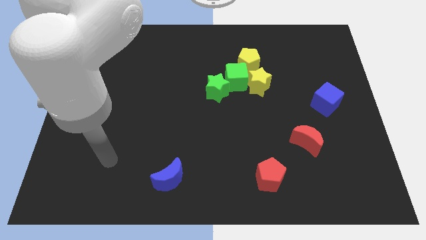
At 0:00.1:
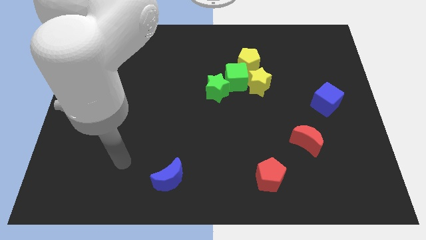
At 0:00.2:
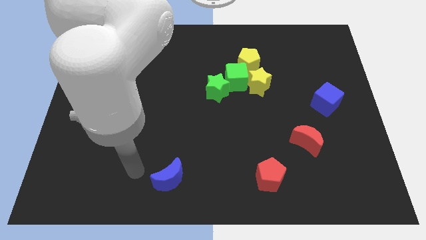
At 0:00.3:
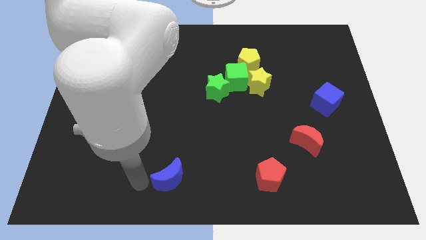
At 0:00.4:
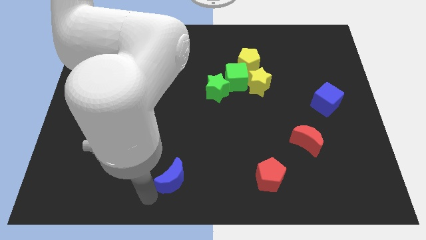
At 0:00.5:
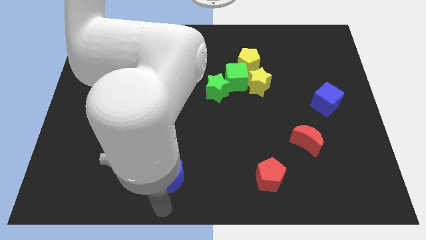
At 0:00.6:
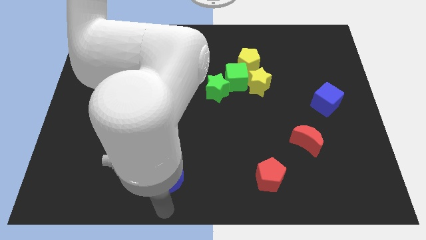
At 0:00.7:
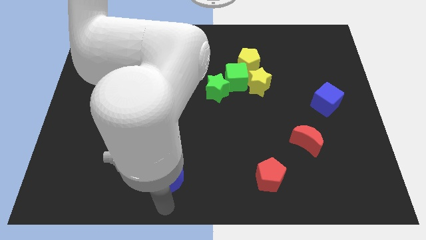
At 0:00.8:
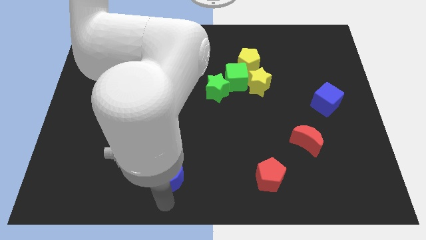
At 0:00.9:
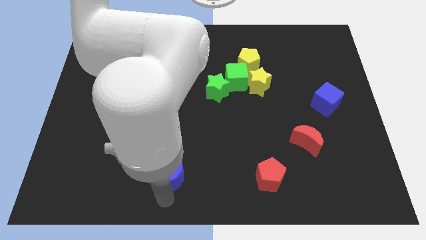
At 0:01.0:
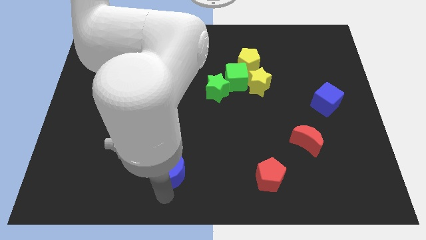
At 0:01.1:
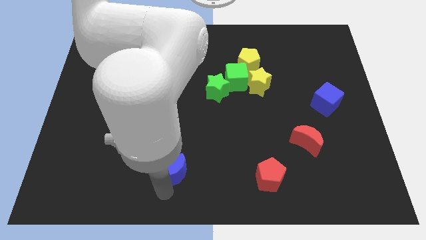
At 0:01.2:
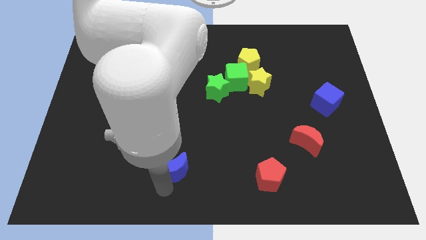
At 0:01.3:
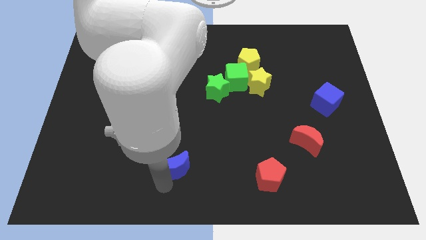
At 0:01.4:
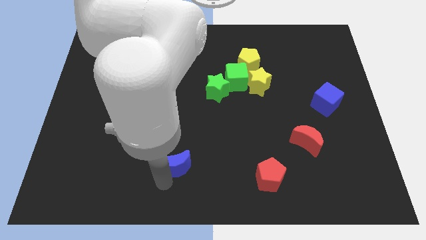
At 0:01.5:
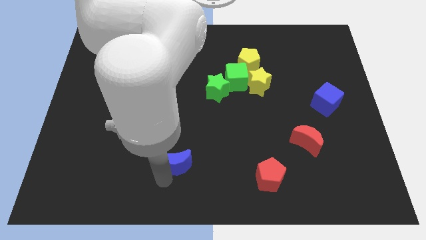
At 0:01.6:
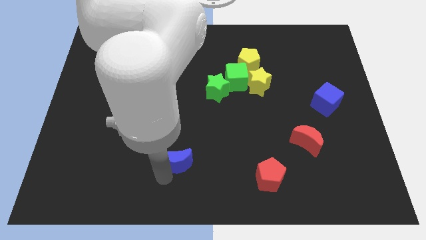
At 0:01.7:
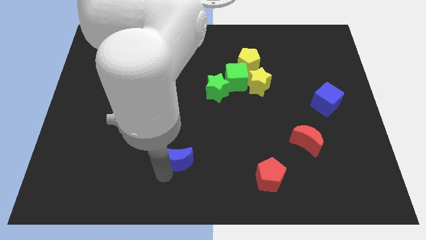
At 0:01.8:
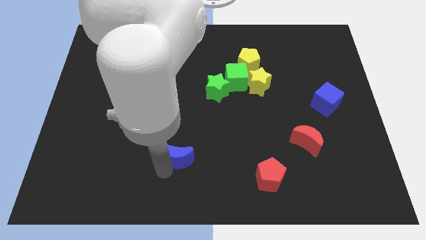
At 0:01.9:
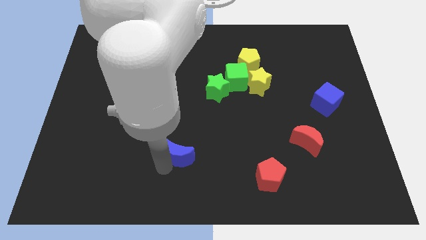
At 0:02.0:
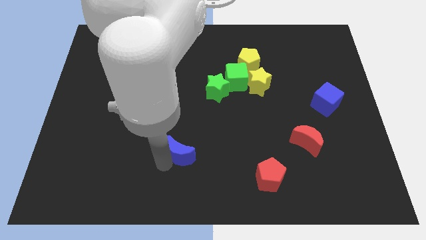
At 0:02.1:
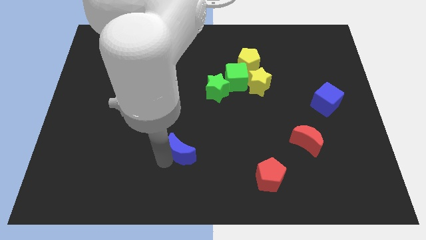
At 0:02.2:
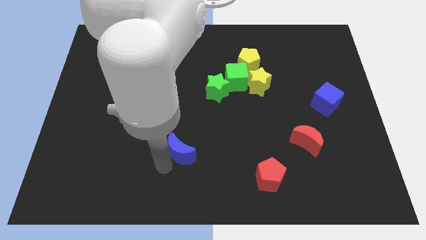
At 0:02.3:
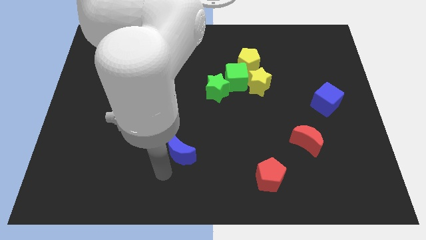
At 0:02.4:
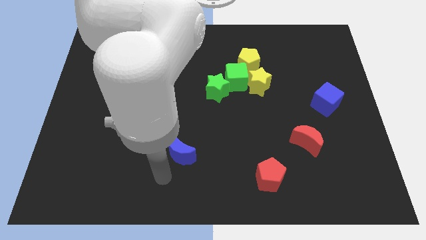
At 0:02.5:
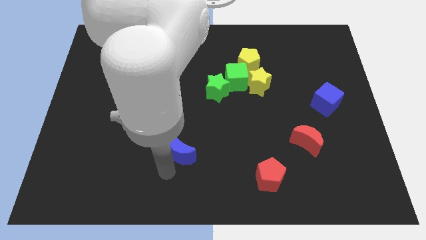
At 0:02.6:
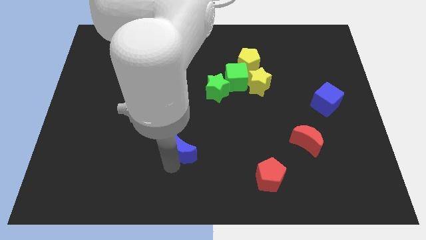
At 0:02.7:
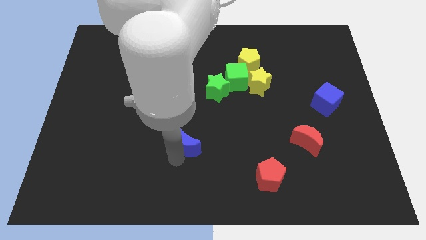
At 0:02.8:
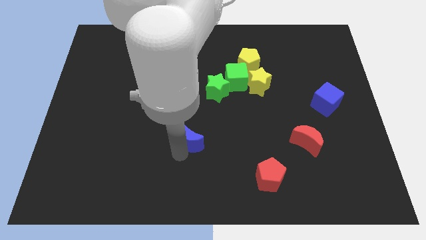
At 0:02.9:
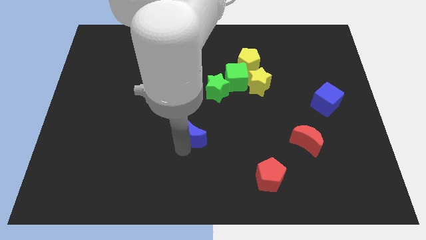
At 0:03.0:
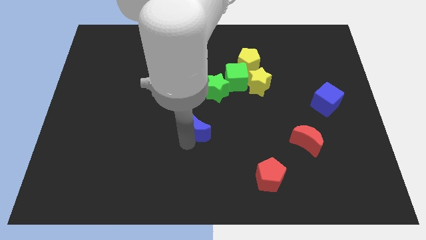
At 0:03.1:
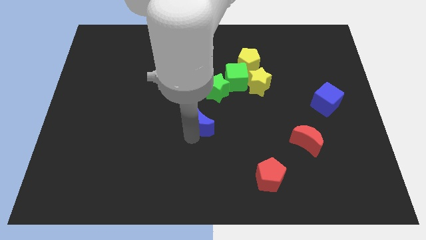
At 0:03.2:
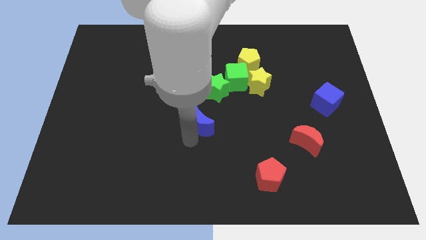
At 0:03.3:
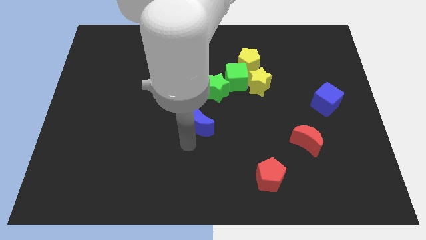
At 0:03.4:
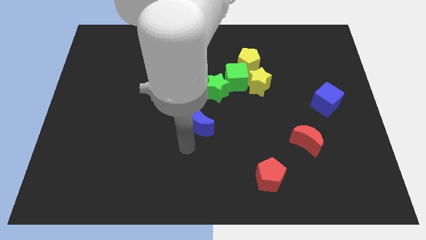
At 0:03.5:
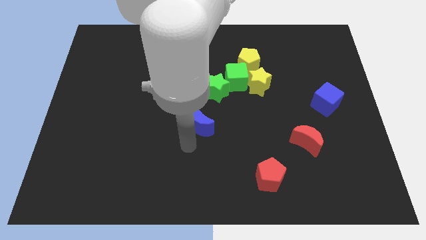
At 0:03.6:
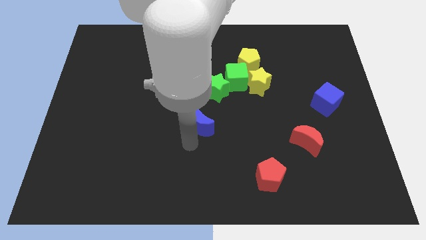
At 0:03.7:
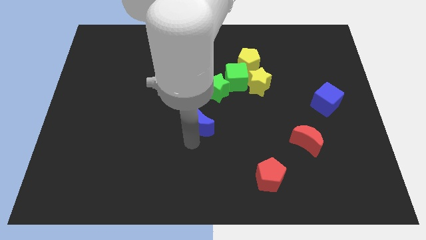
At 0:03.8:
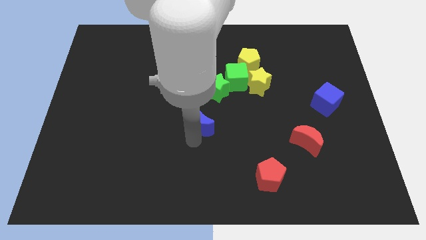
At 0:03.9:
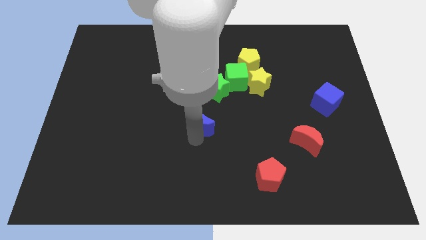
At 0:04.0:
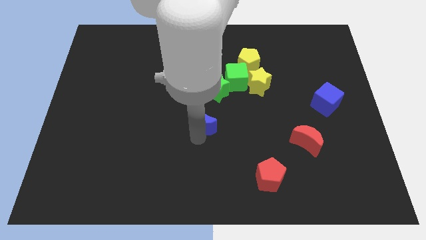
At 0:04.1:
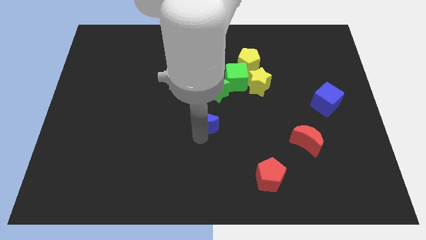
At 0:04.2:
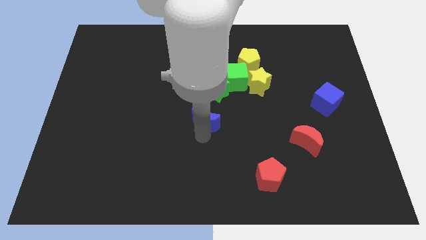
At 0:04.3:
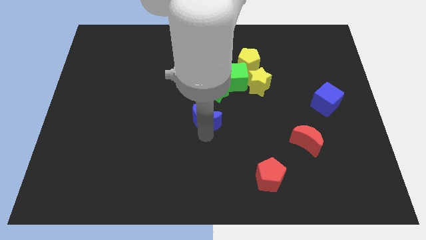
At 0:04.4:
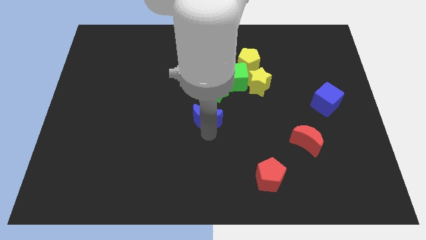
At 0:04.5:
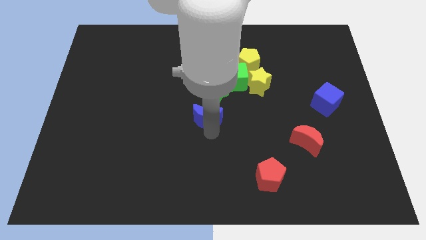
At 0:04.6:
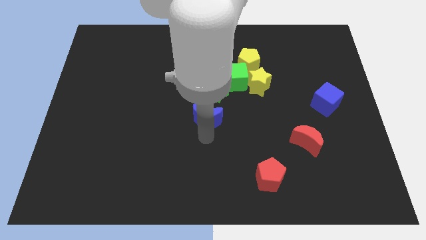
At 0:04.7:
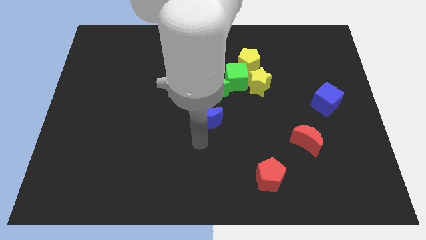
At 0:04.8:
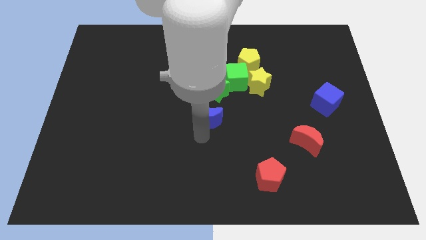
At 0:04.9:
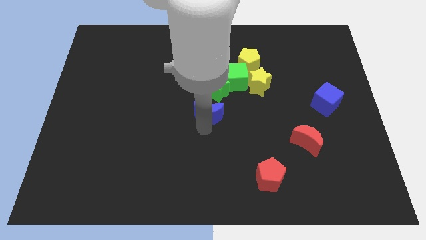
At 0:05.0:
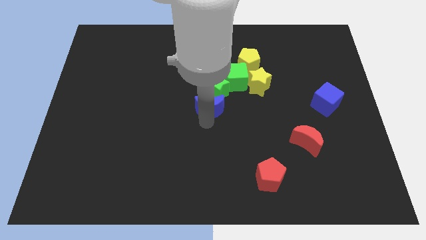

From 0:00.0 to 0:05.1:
push the blue moon to the green star

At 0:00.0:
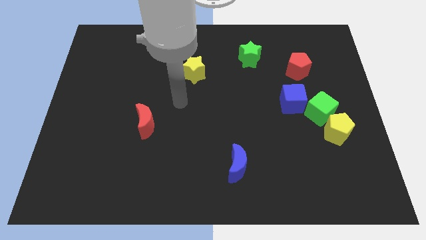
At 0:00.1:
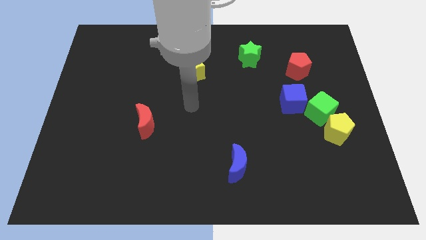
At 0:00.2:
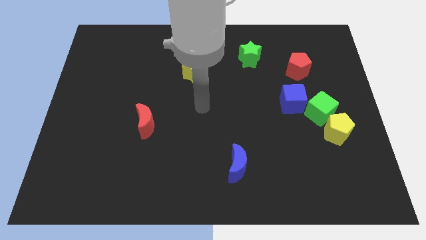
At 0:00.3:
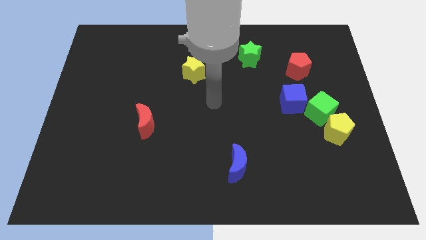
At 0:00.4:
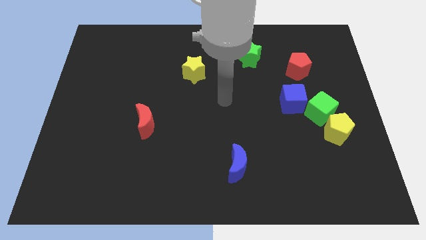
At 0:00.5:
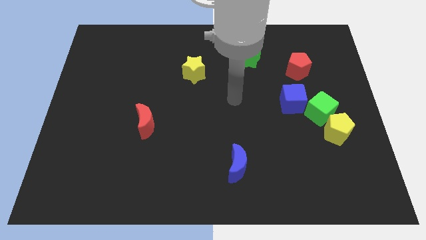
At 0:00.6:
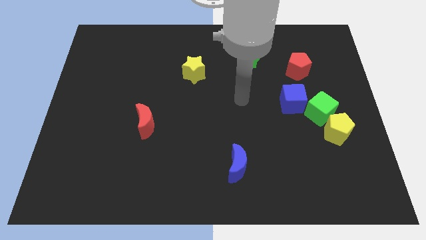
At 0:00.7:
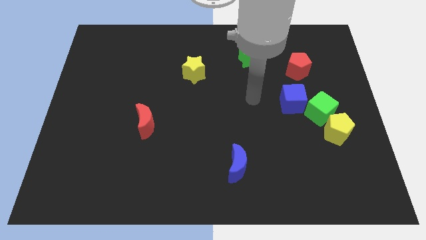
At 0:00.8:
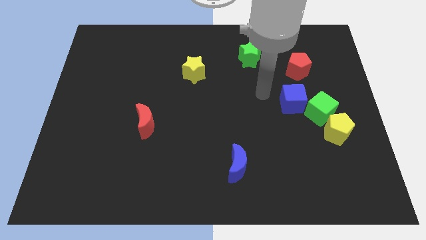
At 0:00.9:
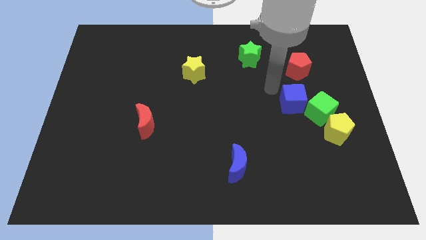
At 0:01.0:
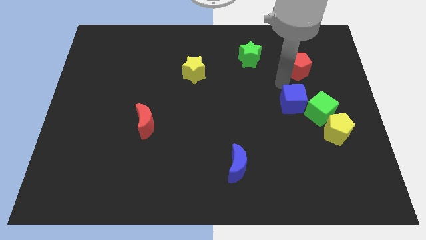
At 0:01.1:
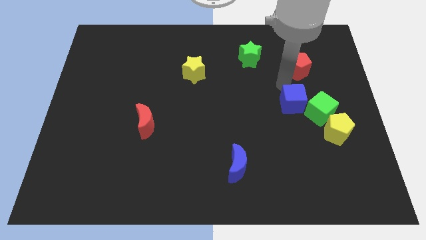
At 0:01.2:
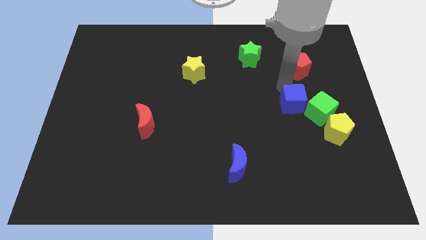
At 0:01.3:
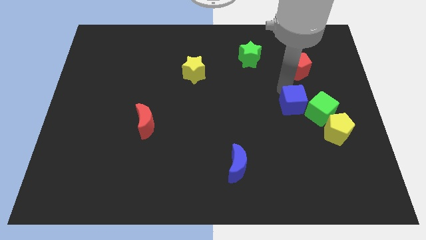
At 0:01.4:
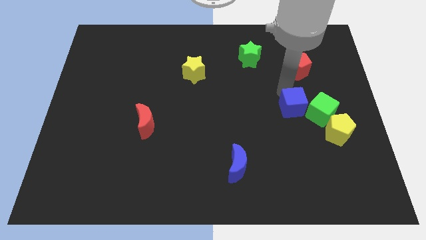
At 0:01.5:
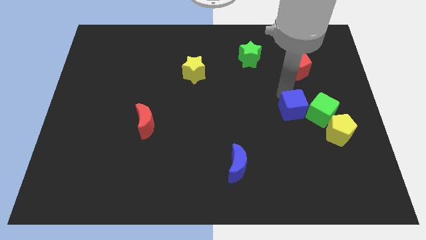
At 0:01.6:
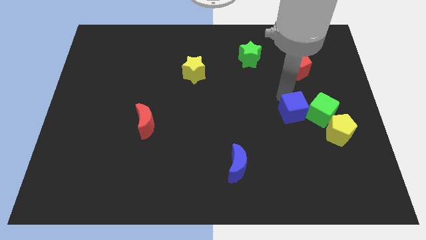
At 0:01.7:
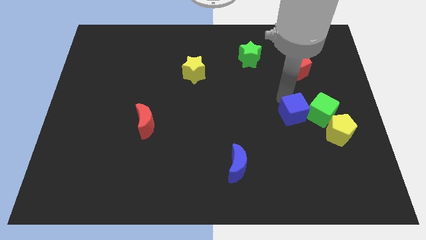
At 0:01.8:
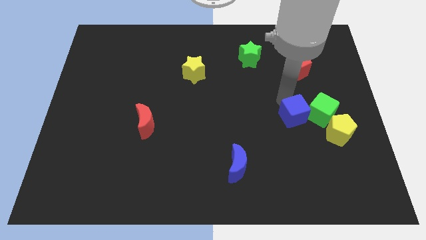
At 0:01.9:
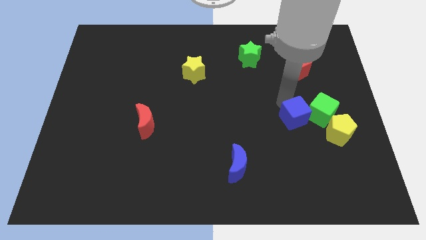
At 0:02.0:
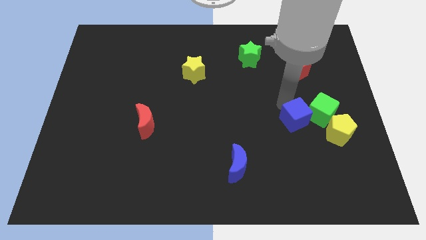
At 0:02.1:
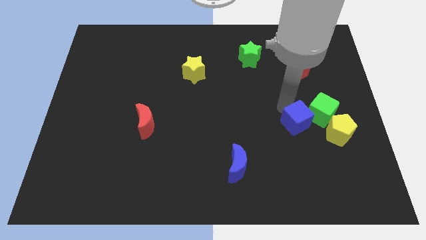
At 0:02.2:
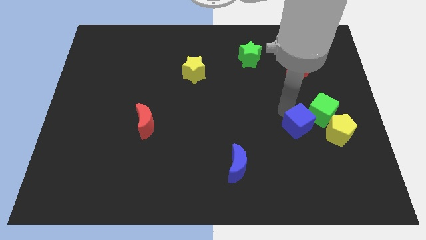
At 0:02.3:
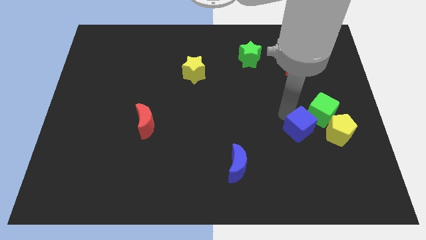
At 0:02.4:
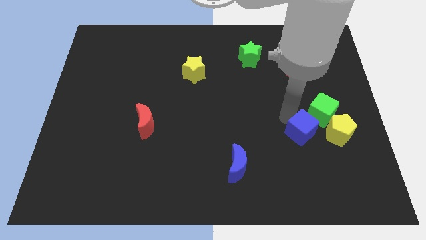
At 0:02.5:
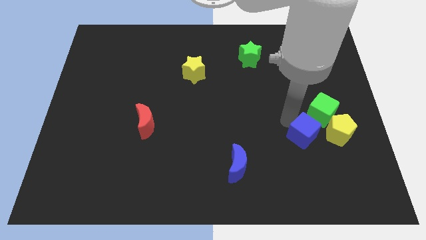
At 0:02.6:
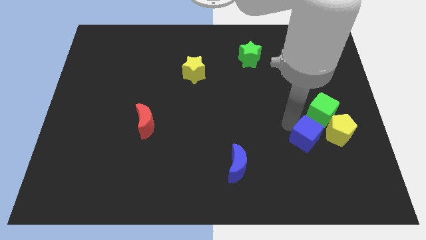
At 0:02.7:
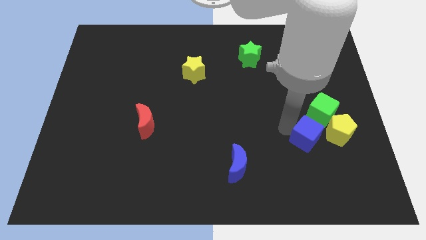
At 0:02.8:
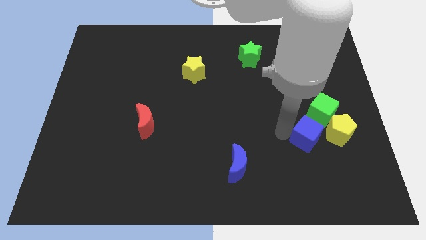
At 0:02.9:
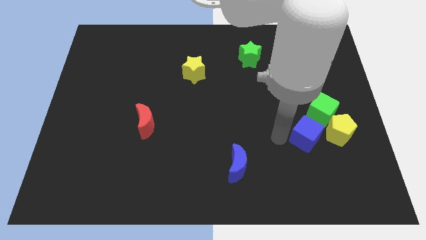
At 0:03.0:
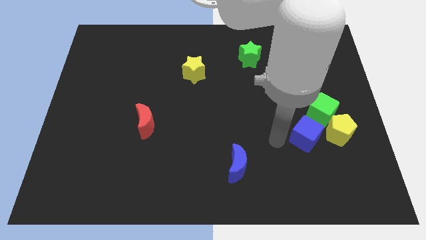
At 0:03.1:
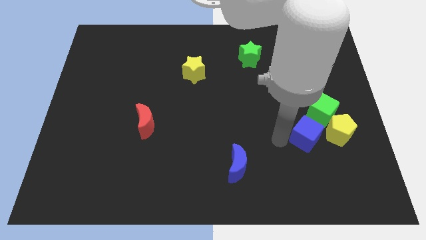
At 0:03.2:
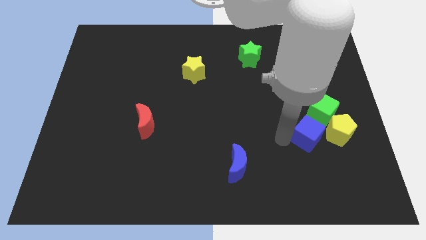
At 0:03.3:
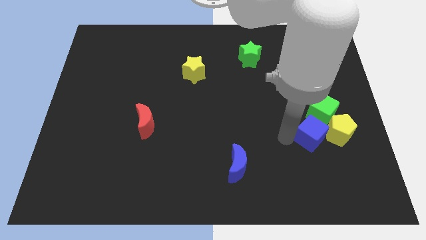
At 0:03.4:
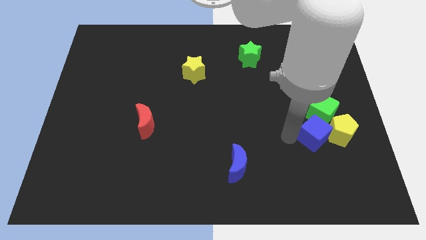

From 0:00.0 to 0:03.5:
push the blue cube towards the yellow pentagon
